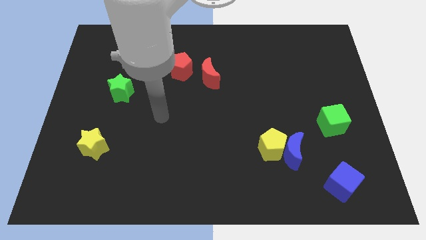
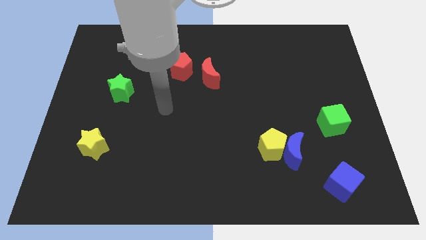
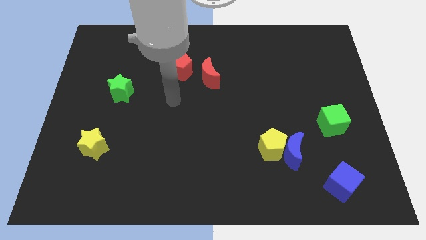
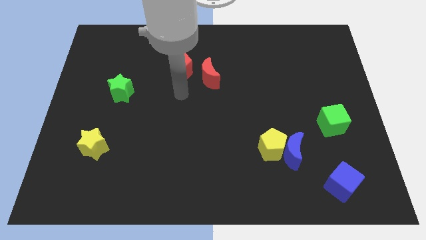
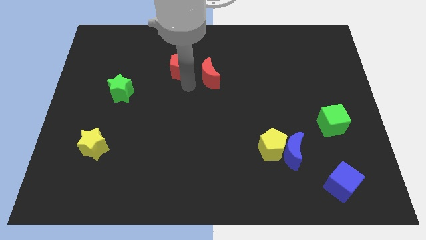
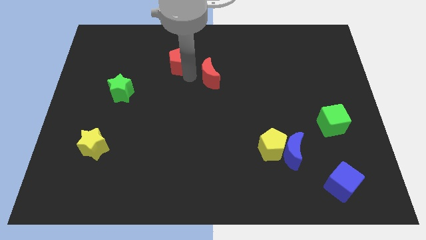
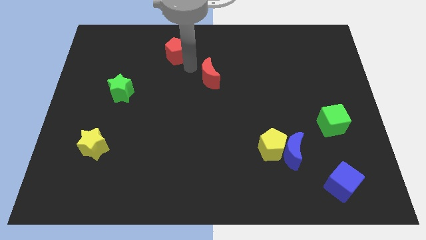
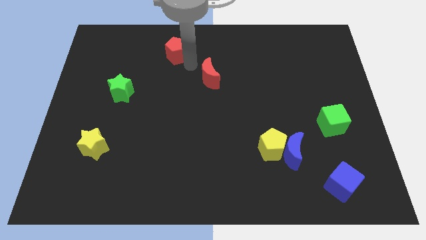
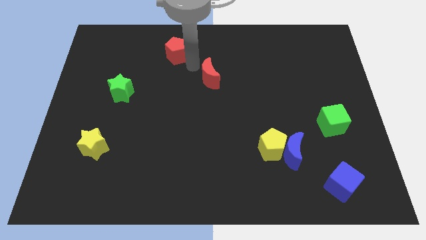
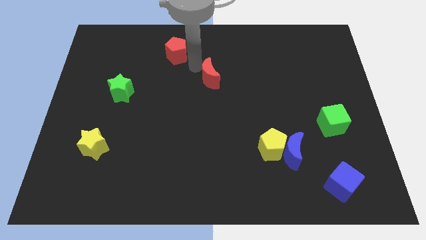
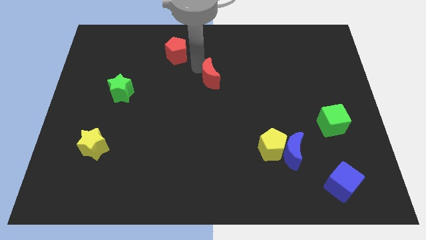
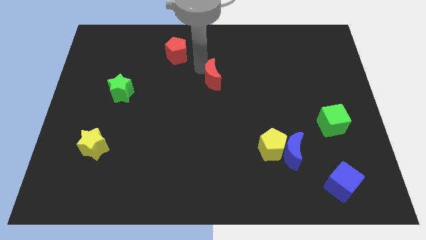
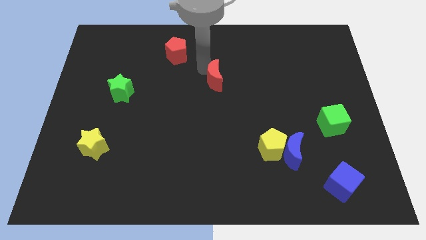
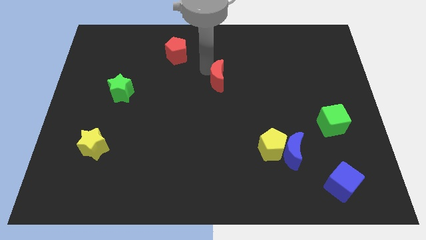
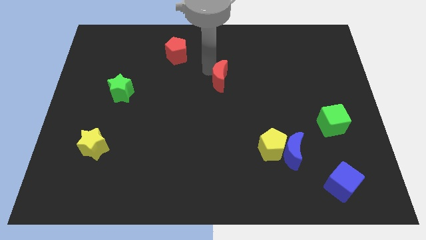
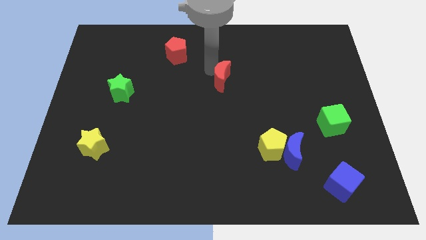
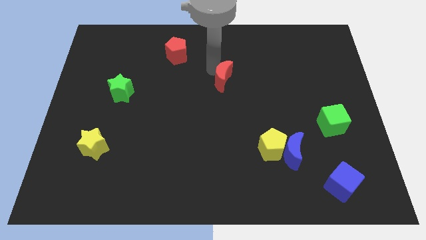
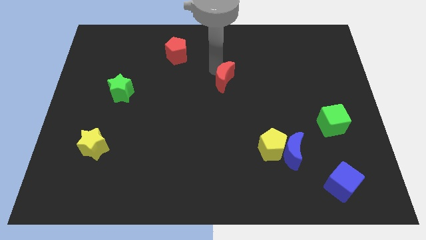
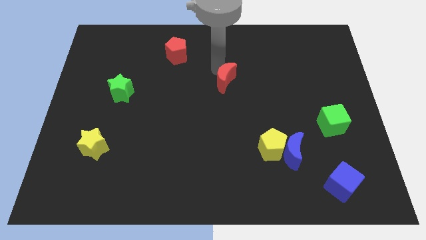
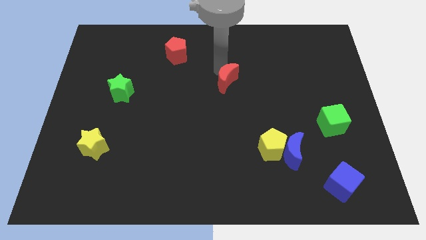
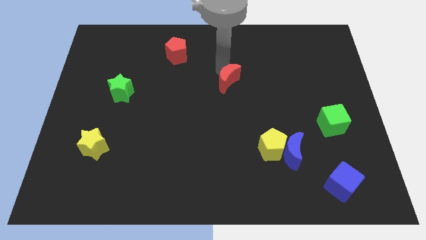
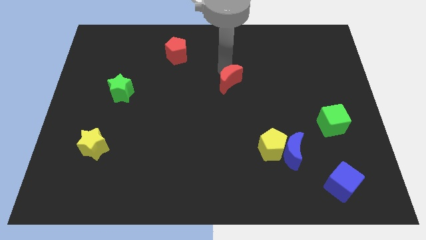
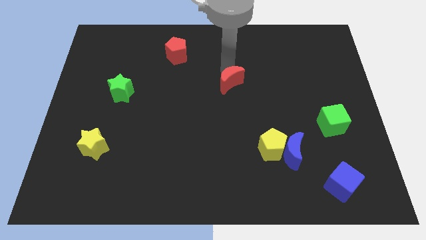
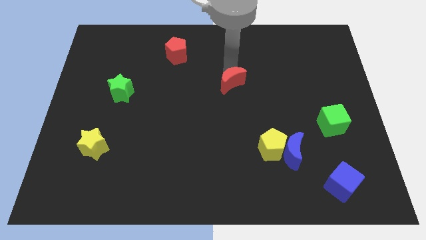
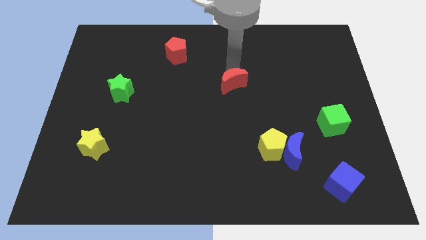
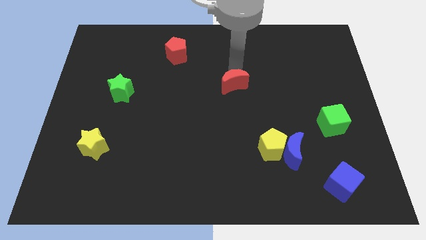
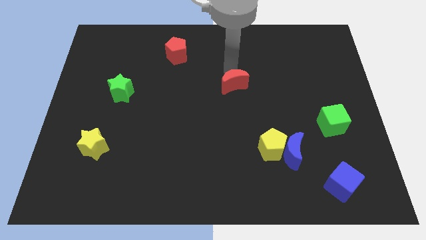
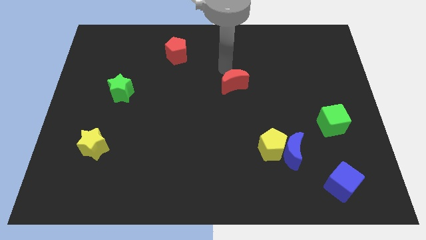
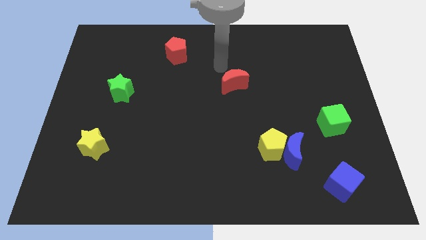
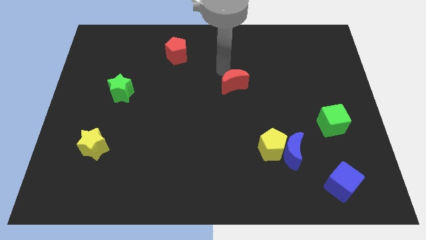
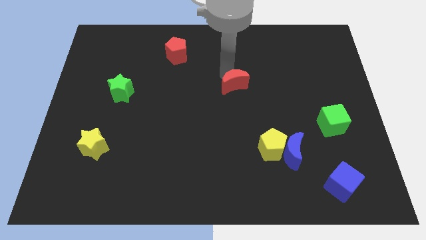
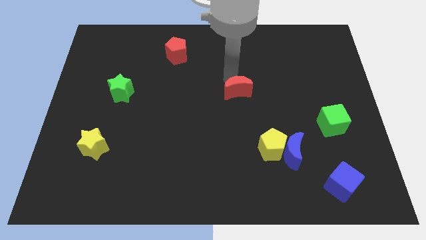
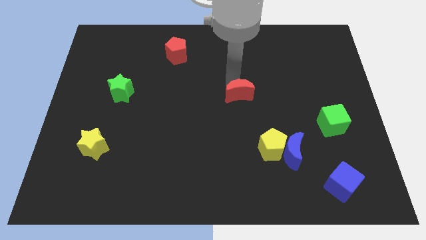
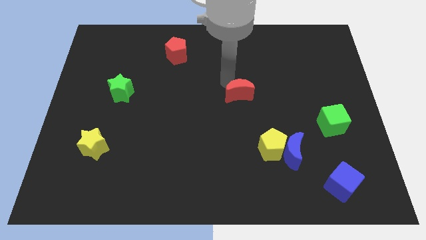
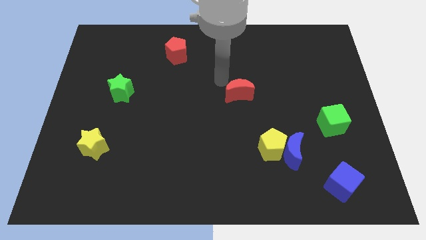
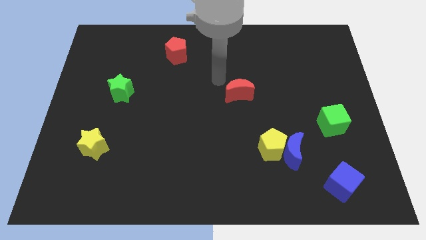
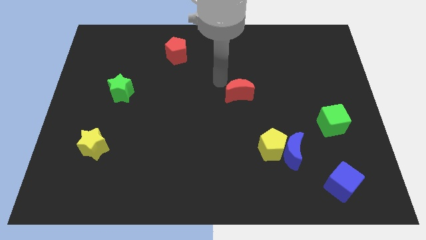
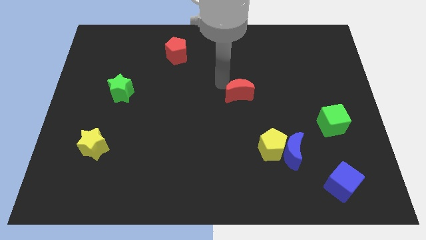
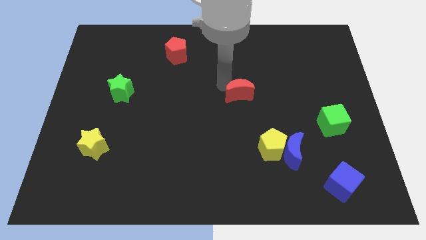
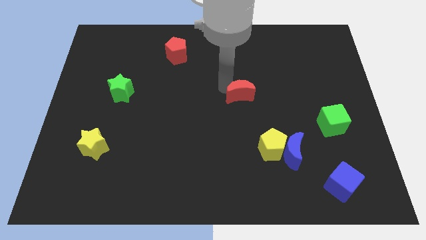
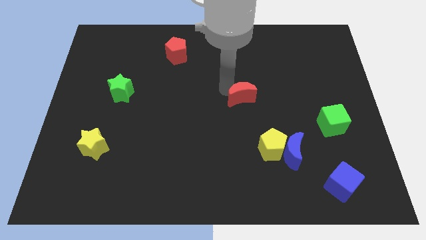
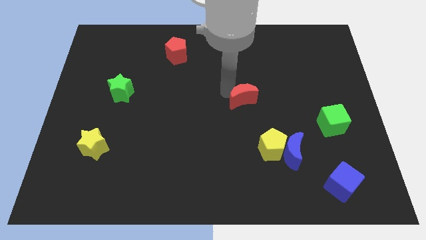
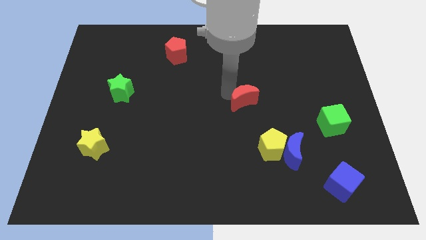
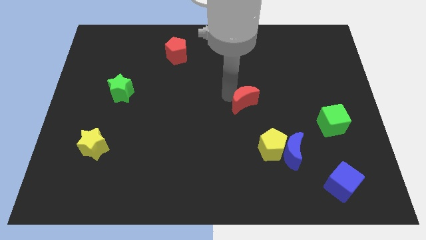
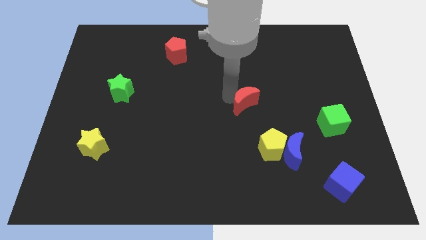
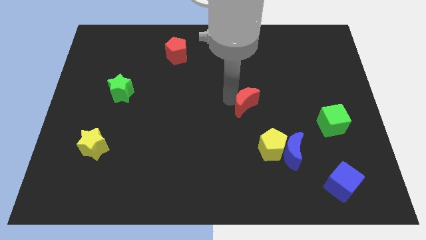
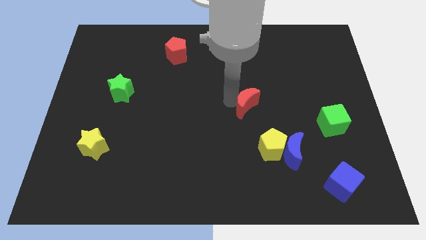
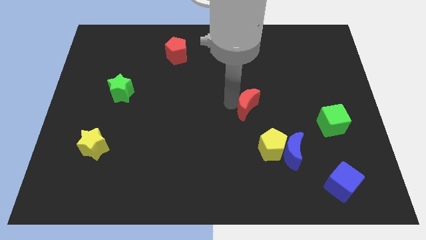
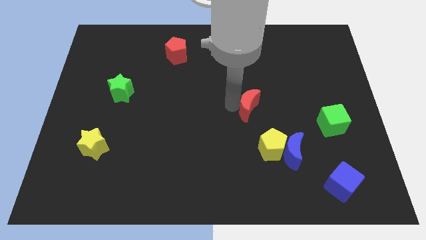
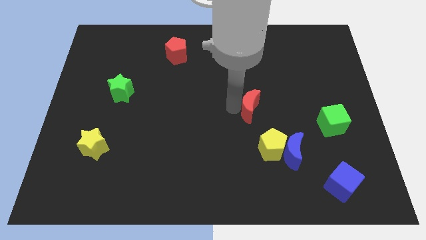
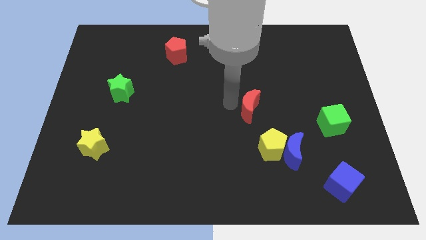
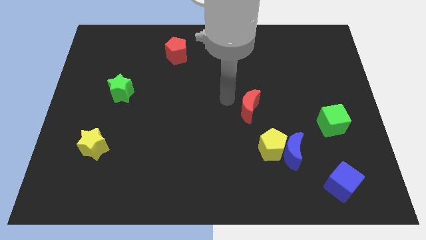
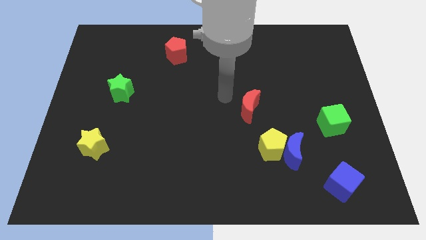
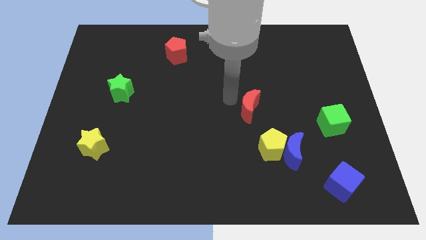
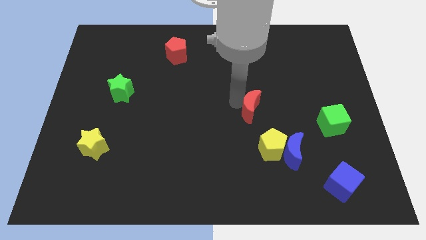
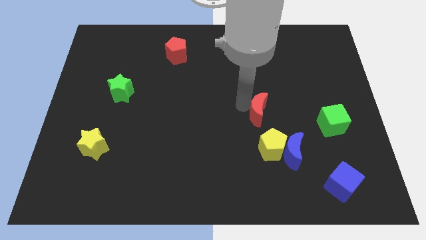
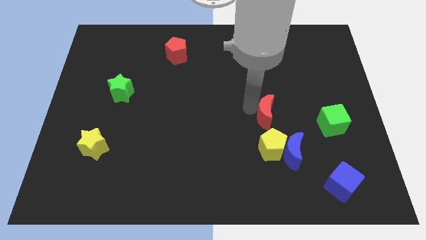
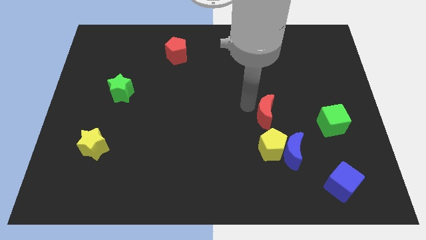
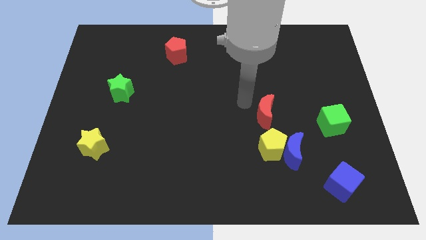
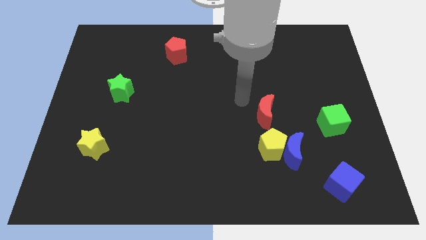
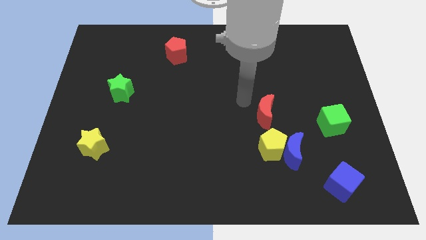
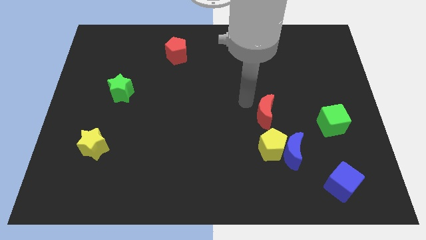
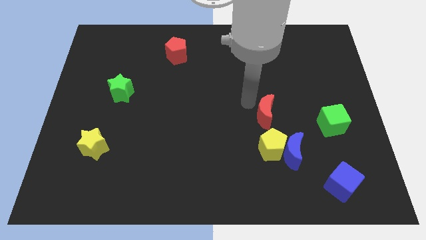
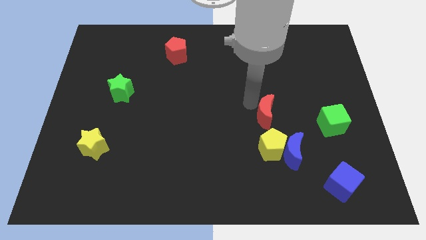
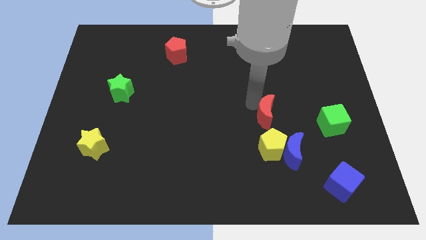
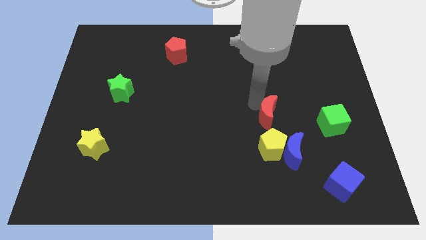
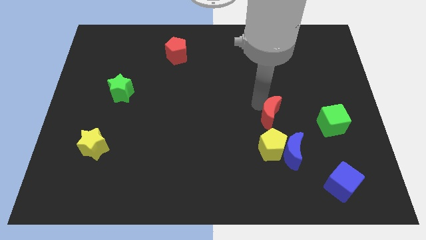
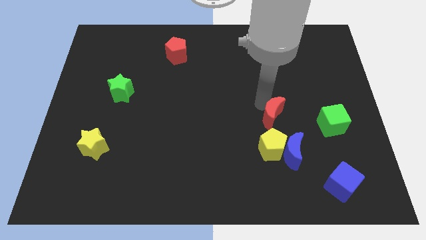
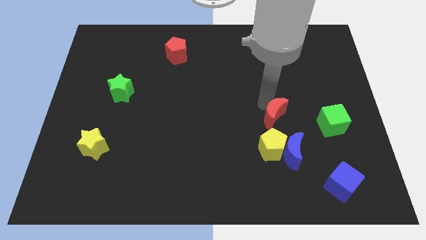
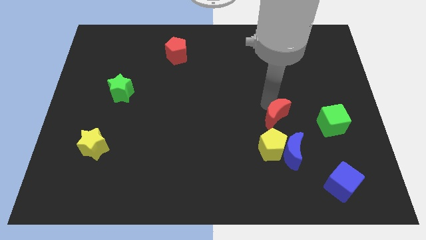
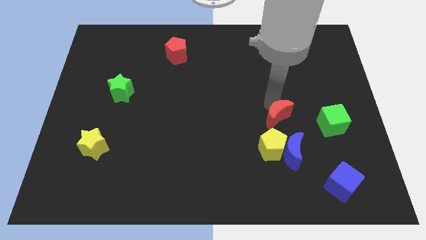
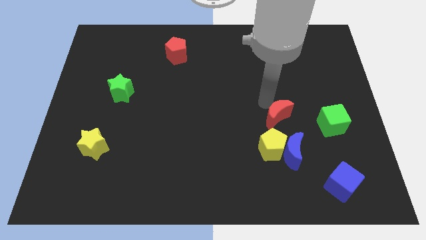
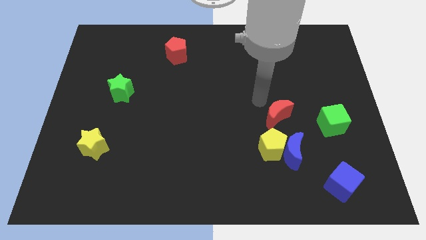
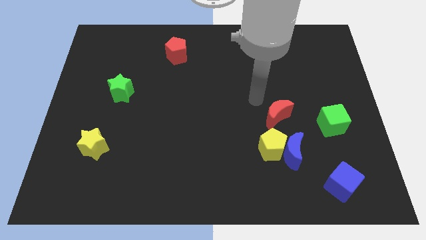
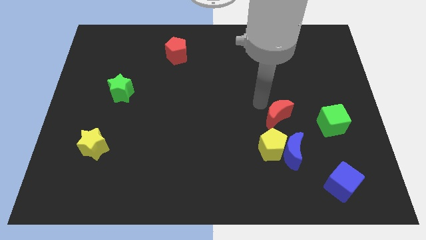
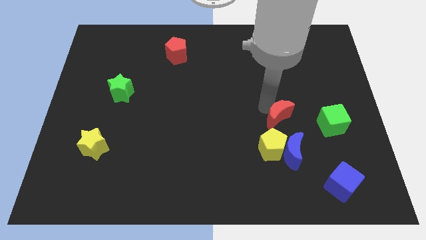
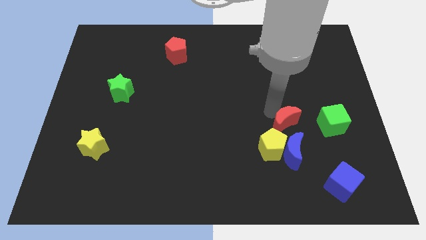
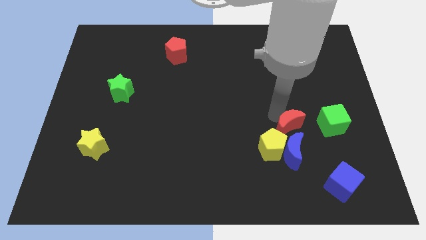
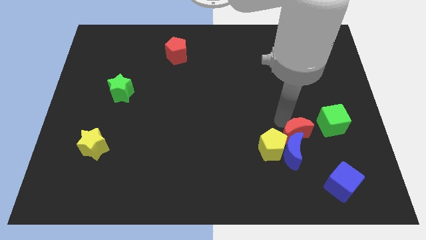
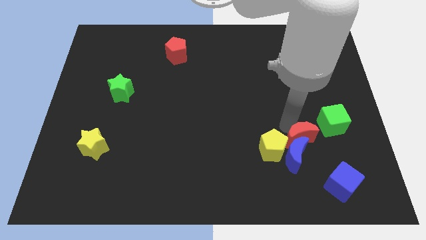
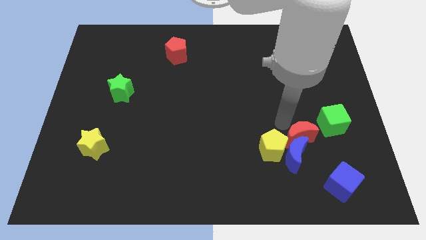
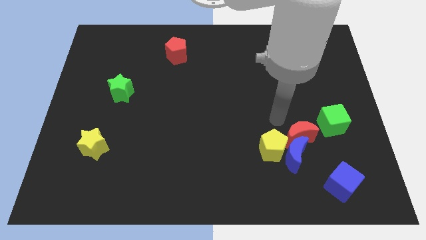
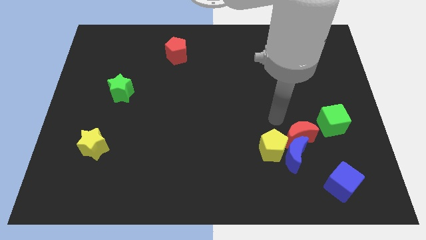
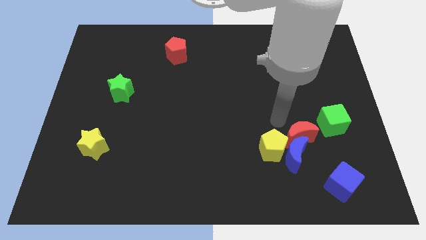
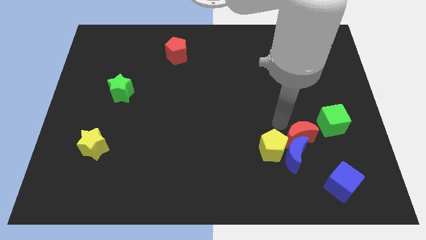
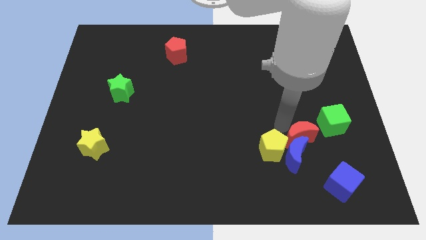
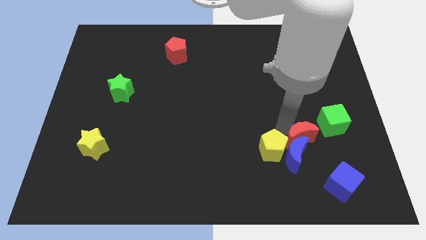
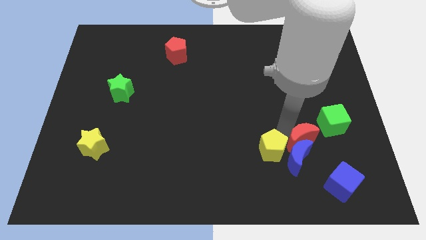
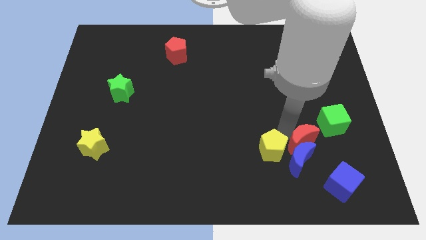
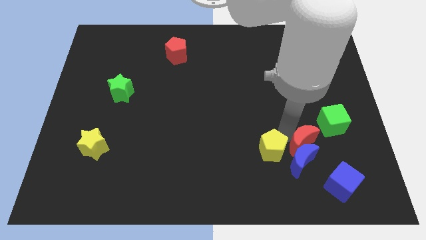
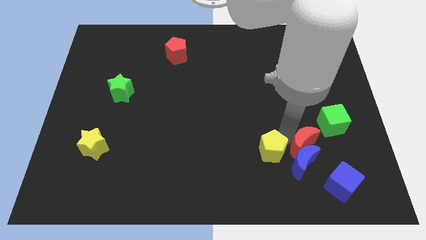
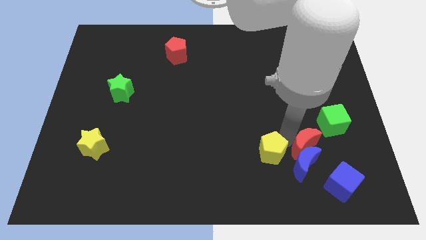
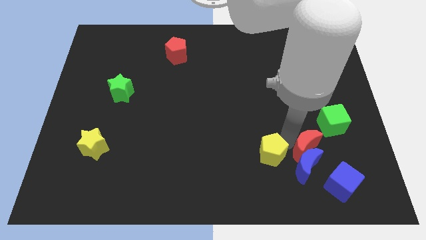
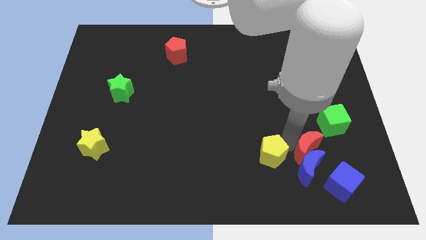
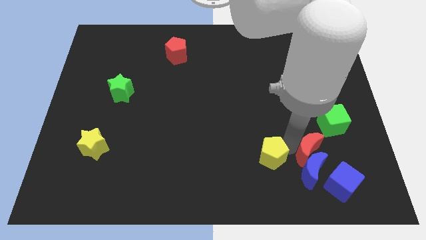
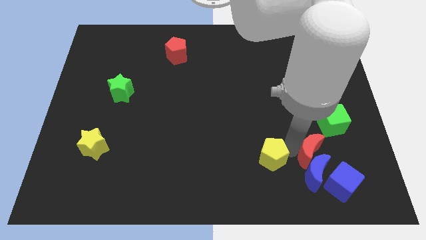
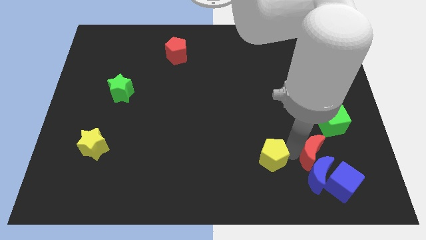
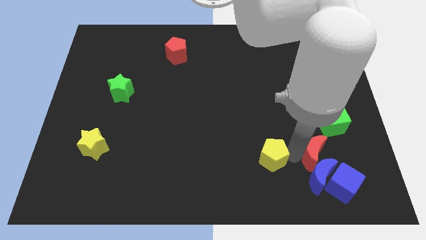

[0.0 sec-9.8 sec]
put the red moon to the top of the blue cube
